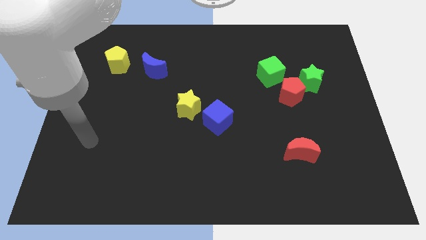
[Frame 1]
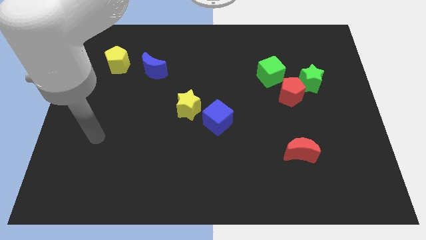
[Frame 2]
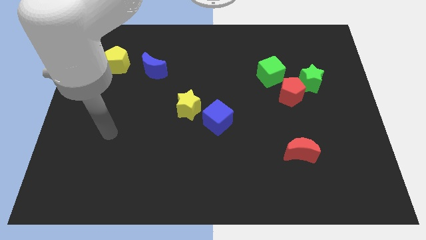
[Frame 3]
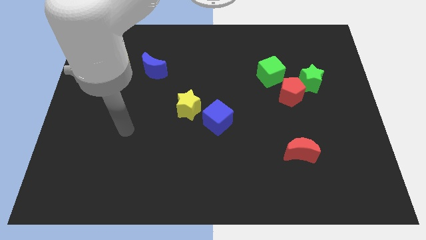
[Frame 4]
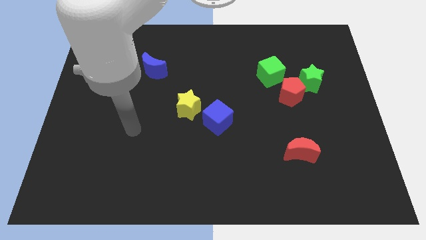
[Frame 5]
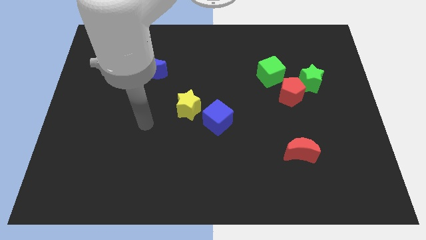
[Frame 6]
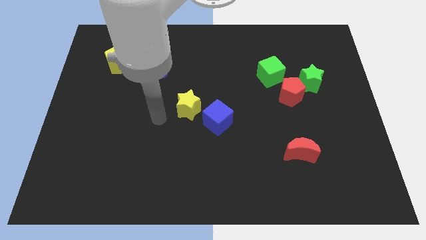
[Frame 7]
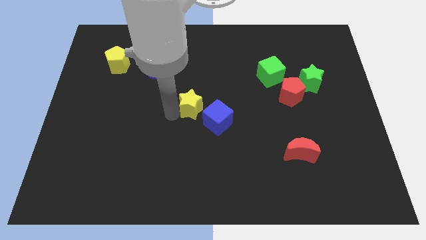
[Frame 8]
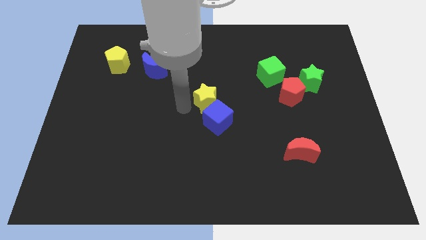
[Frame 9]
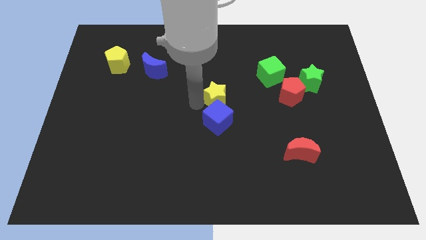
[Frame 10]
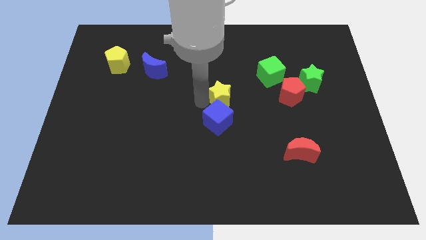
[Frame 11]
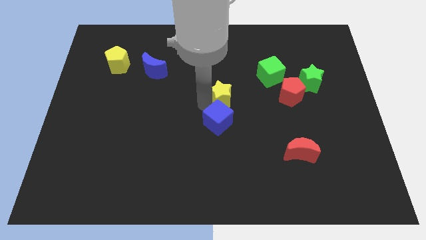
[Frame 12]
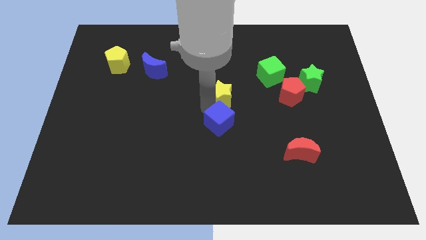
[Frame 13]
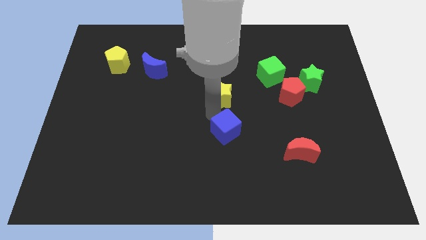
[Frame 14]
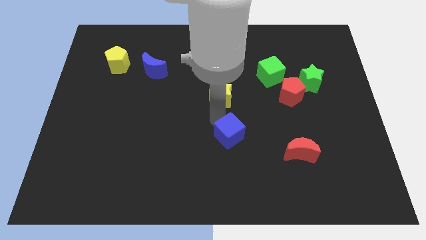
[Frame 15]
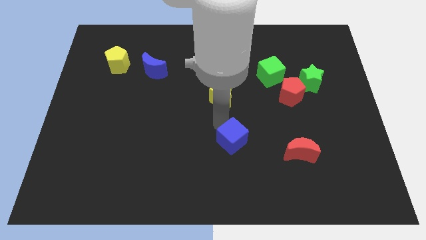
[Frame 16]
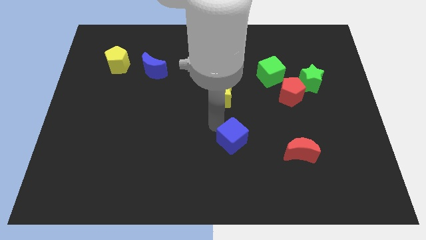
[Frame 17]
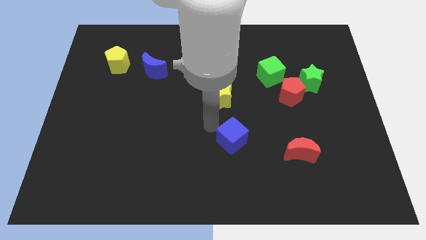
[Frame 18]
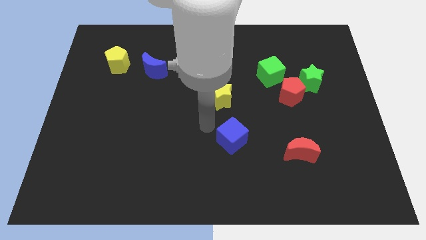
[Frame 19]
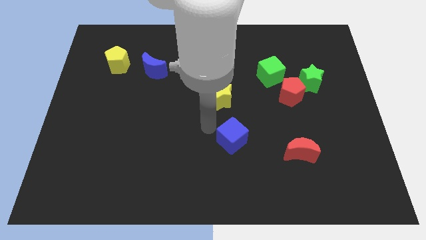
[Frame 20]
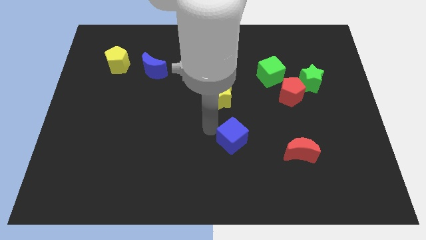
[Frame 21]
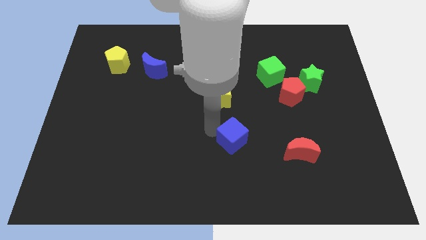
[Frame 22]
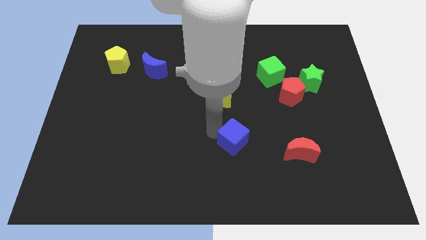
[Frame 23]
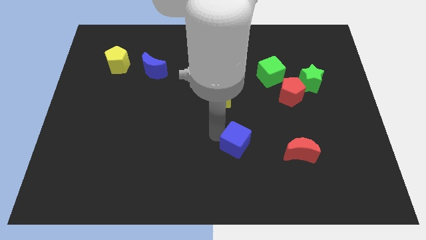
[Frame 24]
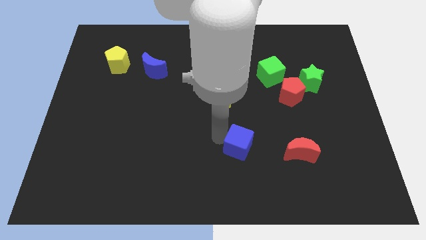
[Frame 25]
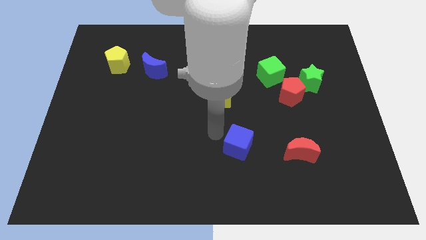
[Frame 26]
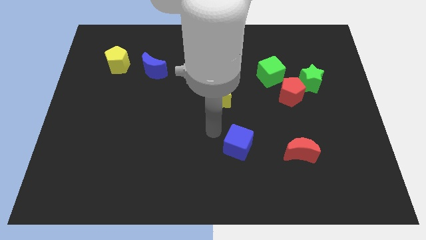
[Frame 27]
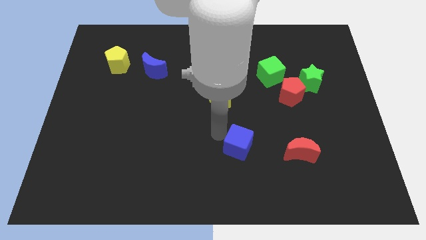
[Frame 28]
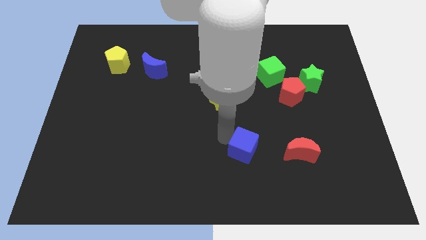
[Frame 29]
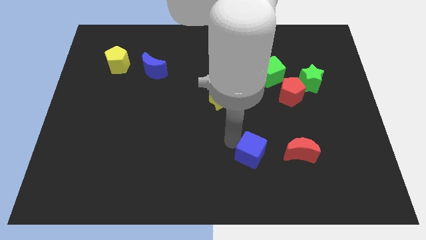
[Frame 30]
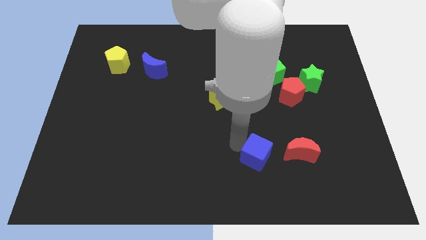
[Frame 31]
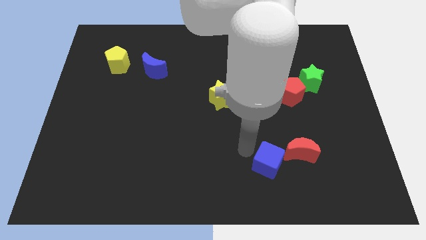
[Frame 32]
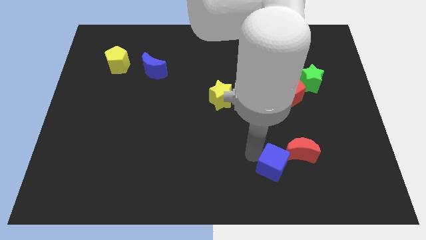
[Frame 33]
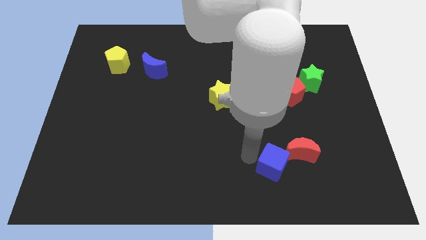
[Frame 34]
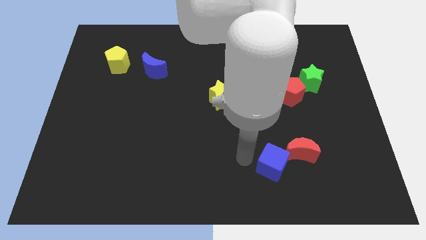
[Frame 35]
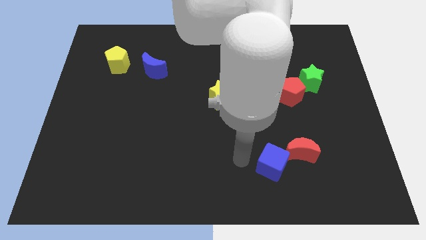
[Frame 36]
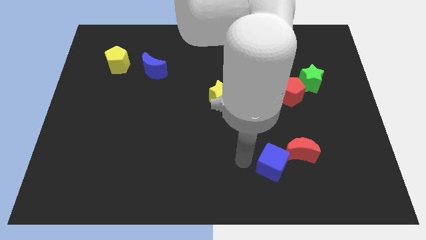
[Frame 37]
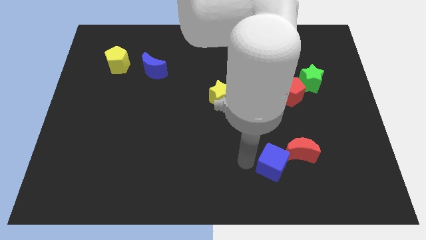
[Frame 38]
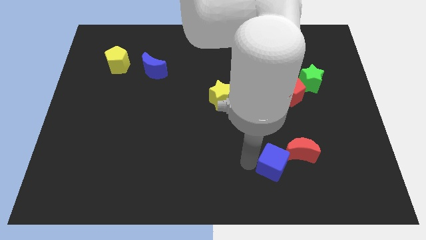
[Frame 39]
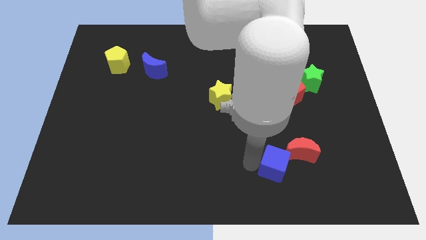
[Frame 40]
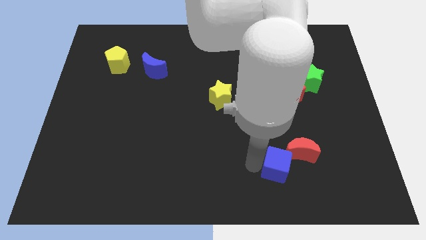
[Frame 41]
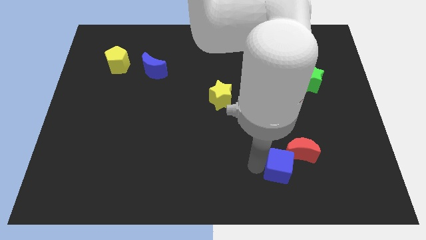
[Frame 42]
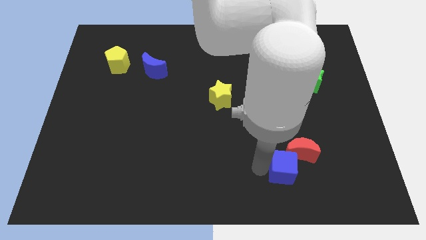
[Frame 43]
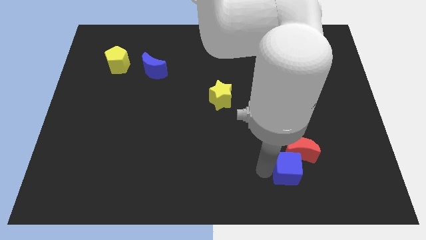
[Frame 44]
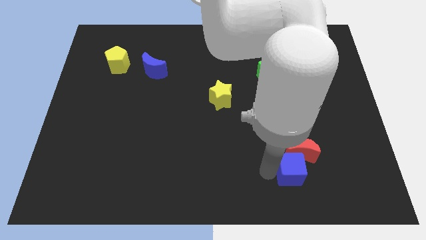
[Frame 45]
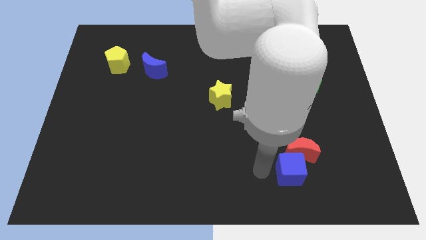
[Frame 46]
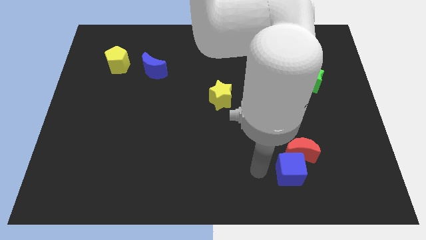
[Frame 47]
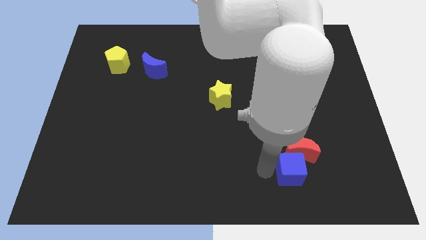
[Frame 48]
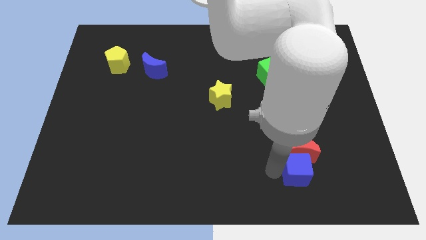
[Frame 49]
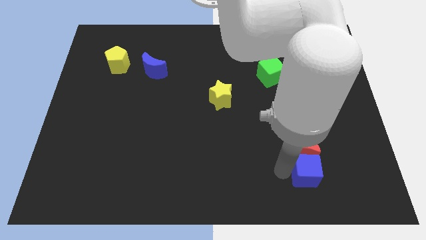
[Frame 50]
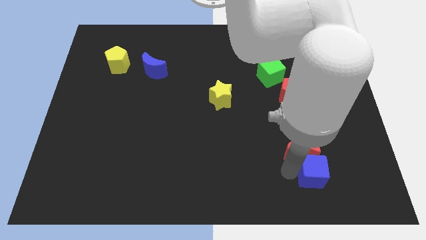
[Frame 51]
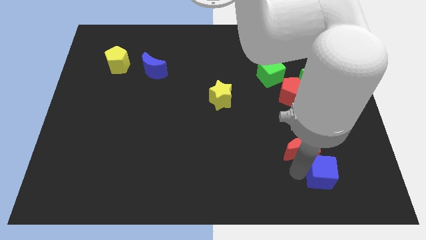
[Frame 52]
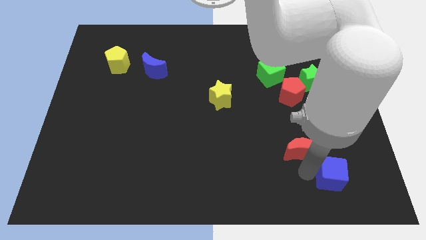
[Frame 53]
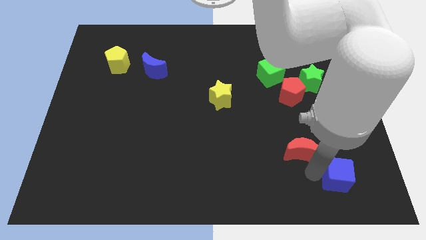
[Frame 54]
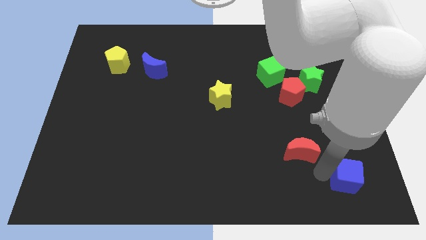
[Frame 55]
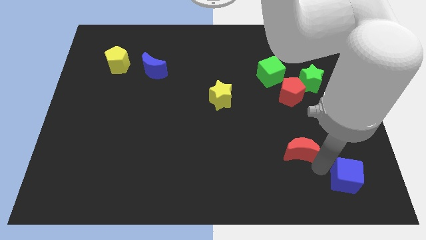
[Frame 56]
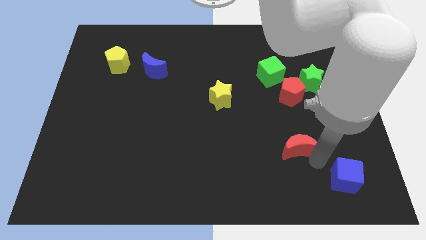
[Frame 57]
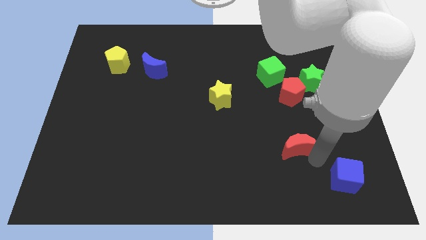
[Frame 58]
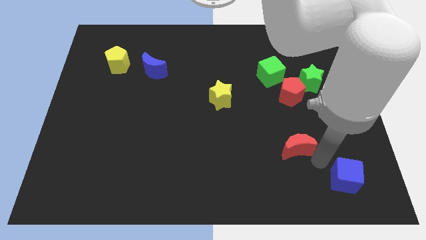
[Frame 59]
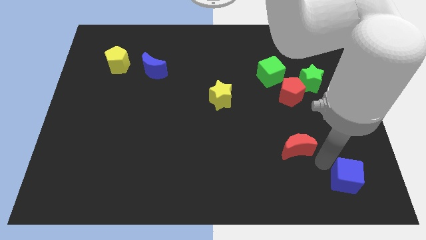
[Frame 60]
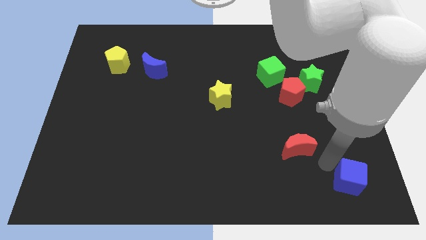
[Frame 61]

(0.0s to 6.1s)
move the blue cube to the bottom right corner

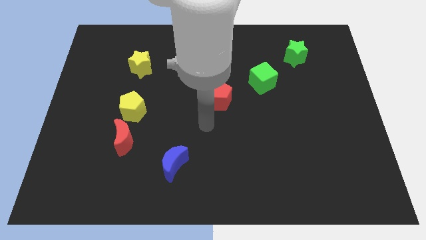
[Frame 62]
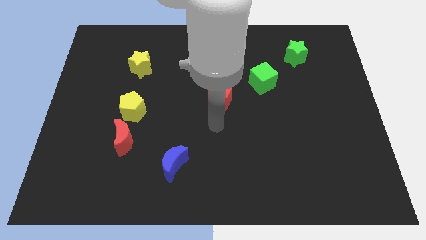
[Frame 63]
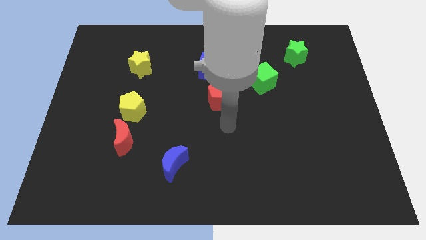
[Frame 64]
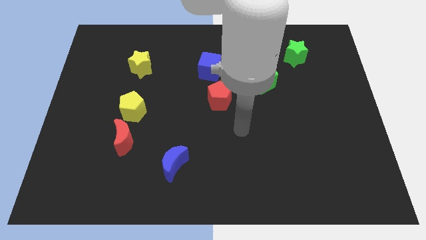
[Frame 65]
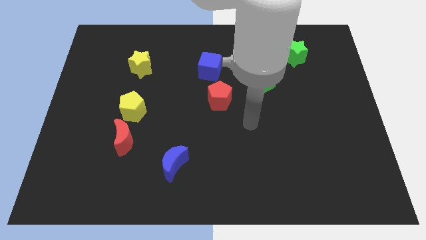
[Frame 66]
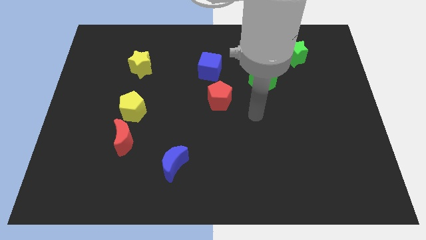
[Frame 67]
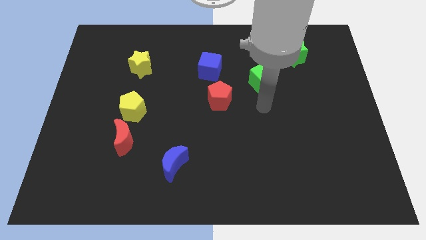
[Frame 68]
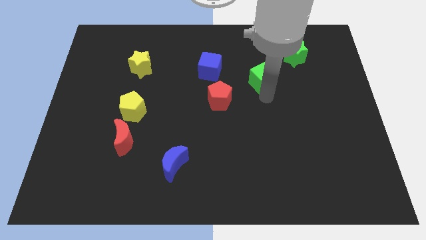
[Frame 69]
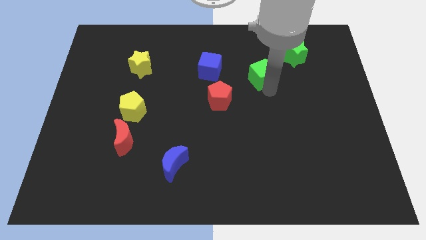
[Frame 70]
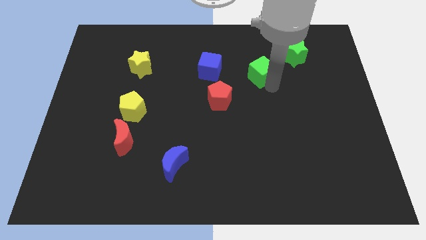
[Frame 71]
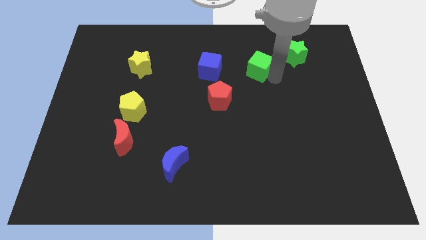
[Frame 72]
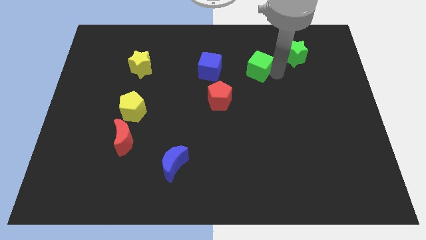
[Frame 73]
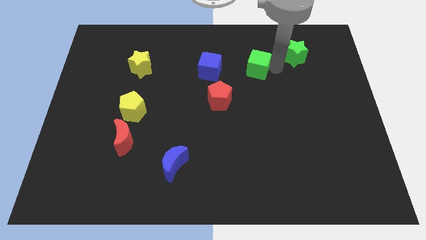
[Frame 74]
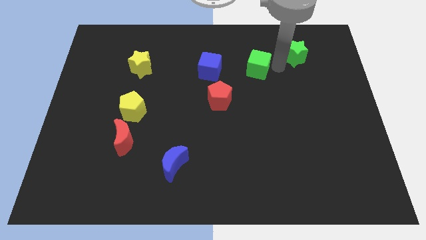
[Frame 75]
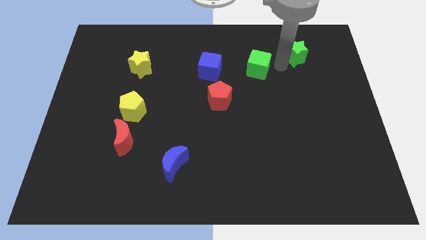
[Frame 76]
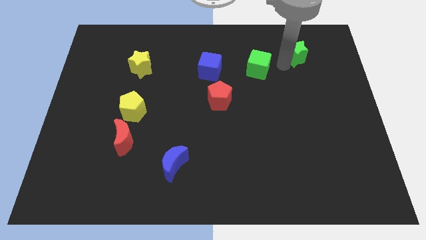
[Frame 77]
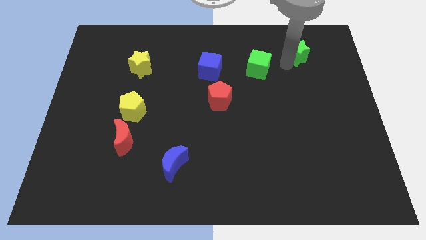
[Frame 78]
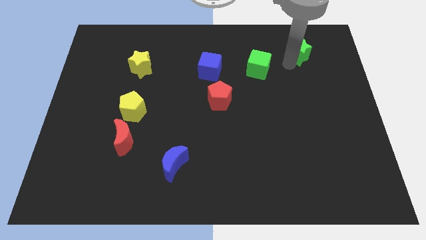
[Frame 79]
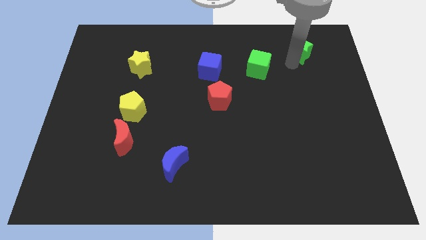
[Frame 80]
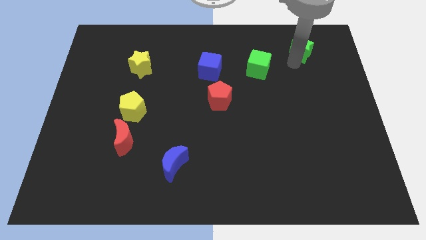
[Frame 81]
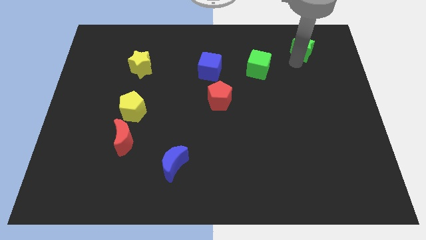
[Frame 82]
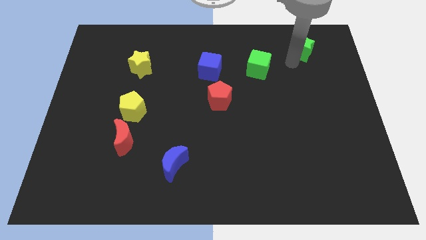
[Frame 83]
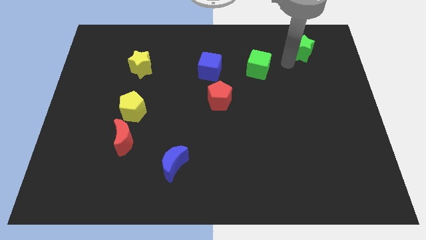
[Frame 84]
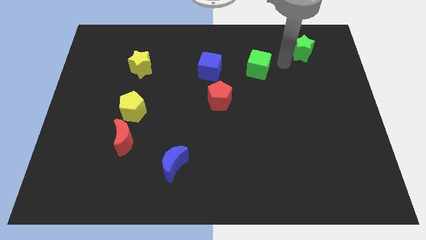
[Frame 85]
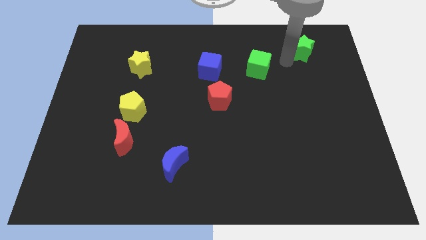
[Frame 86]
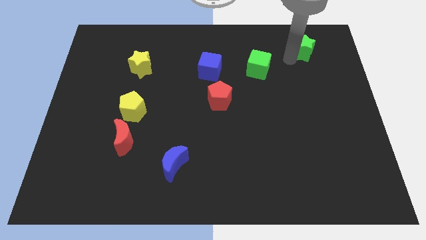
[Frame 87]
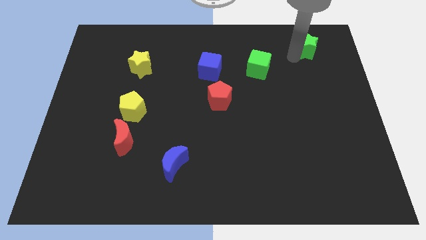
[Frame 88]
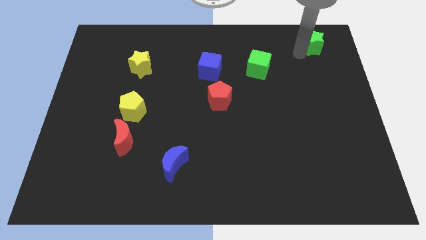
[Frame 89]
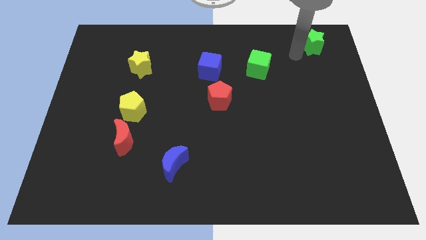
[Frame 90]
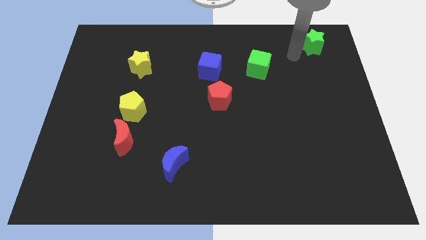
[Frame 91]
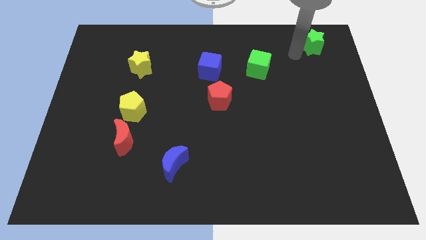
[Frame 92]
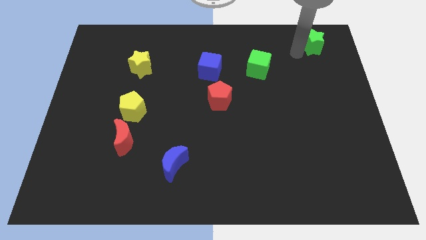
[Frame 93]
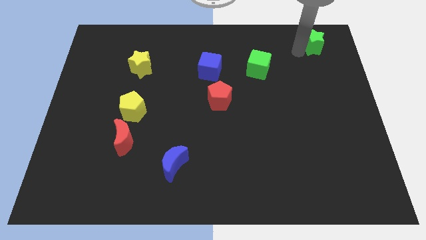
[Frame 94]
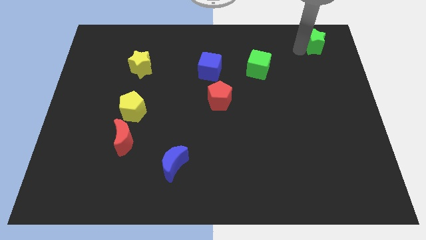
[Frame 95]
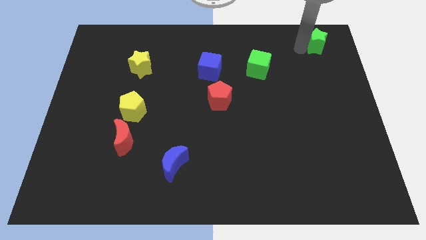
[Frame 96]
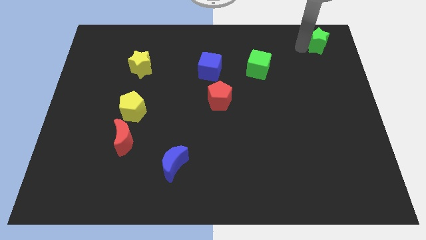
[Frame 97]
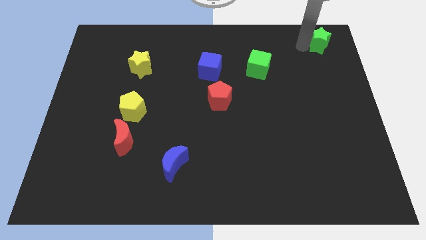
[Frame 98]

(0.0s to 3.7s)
slide the green star to the top right corner
